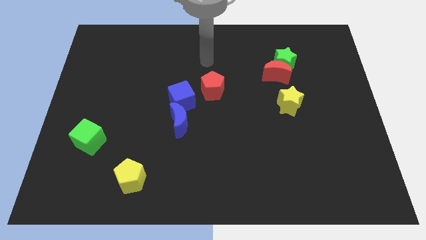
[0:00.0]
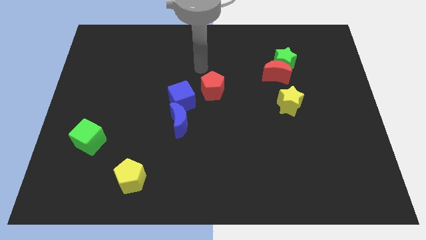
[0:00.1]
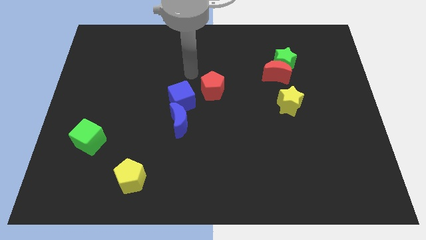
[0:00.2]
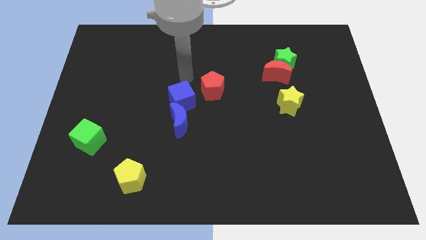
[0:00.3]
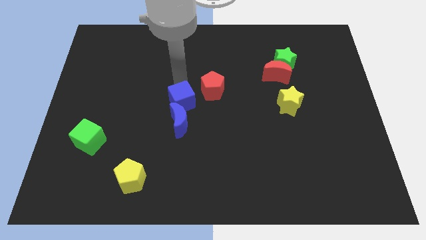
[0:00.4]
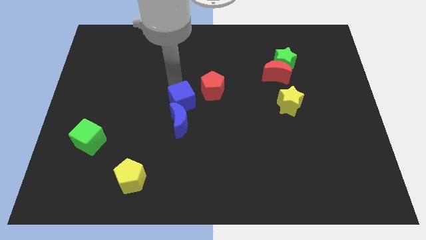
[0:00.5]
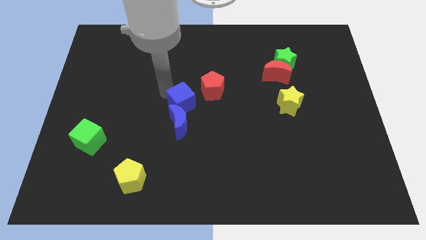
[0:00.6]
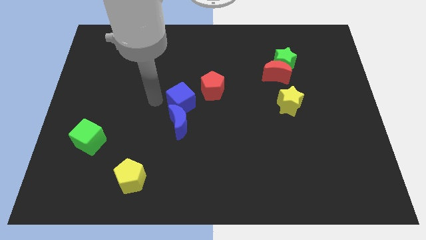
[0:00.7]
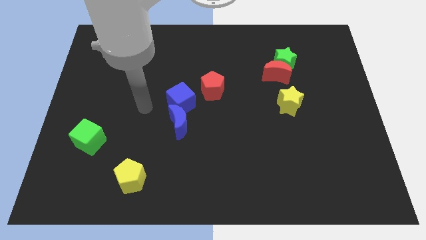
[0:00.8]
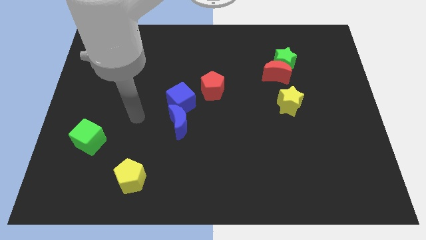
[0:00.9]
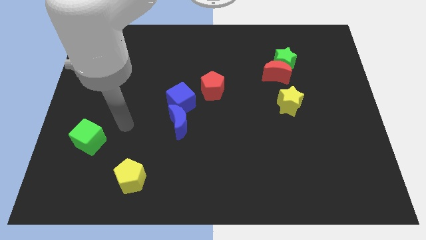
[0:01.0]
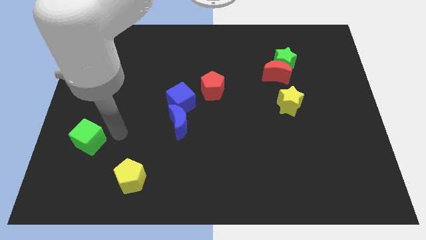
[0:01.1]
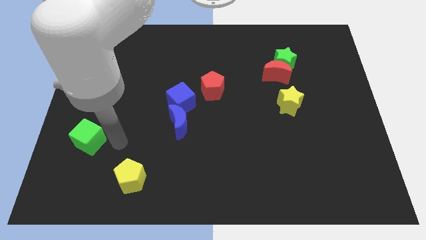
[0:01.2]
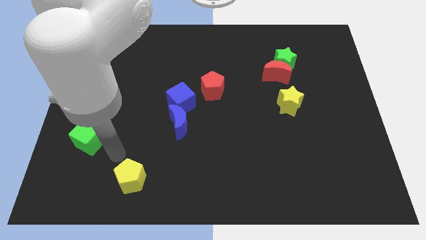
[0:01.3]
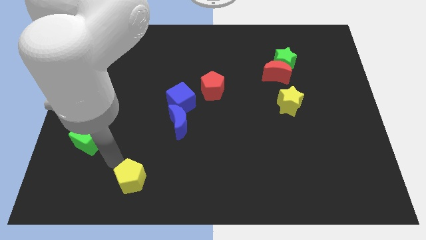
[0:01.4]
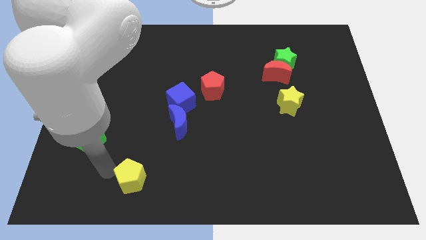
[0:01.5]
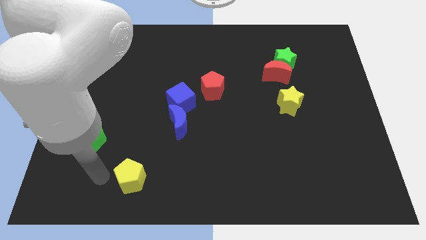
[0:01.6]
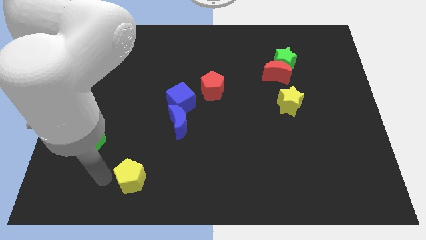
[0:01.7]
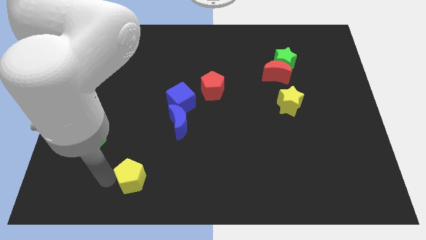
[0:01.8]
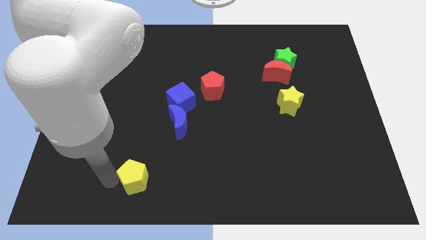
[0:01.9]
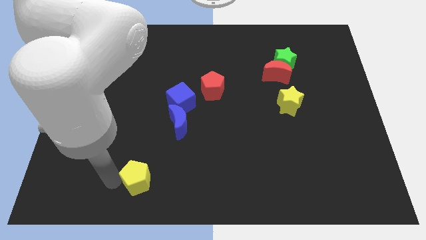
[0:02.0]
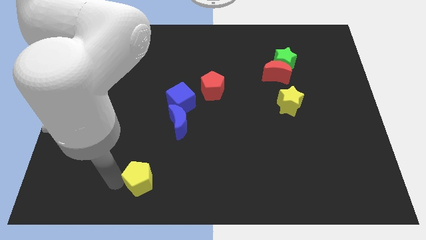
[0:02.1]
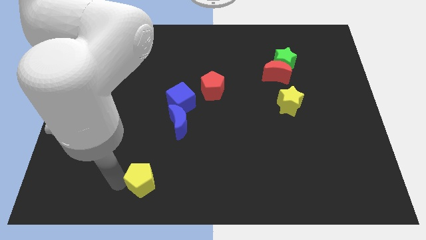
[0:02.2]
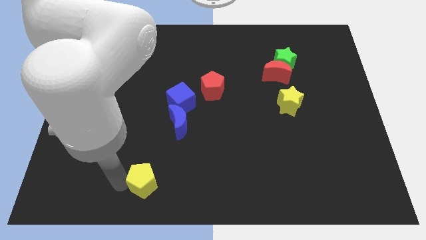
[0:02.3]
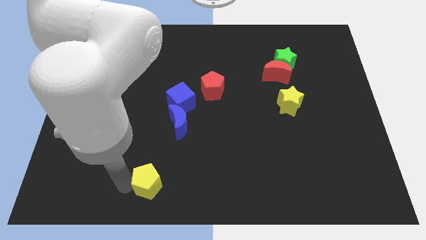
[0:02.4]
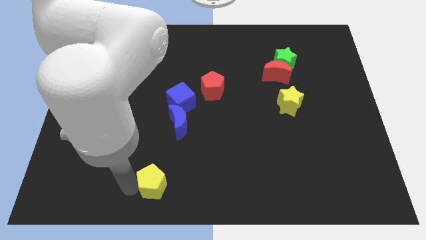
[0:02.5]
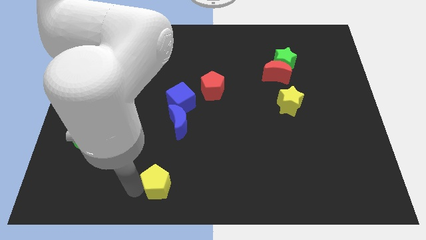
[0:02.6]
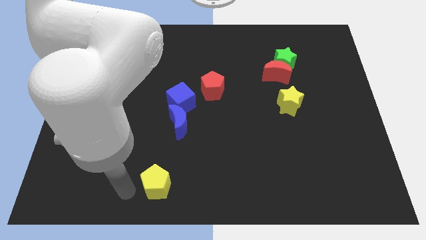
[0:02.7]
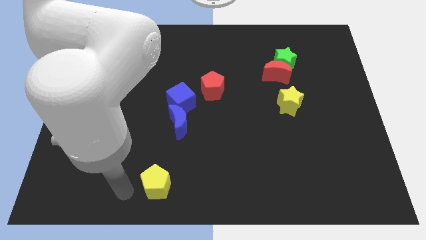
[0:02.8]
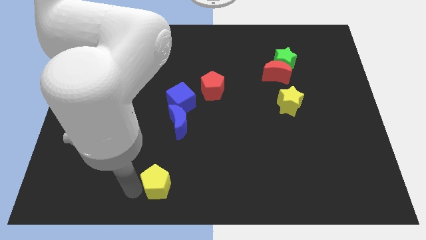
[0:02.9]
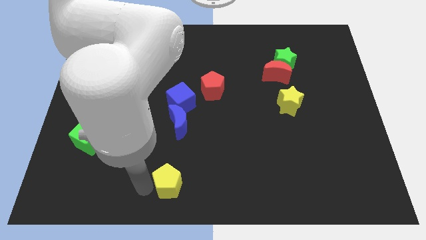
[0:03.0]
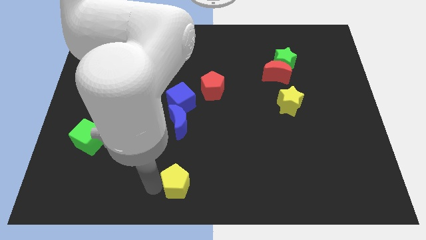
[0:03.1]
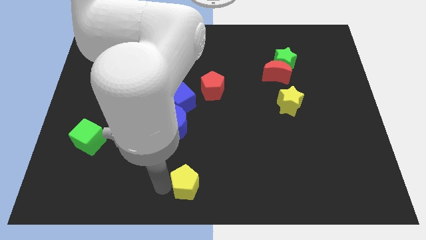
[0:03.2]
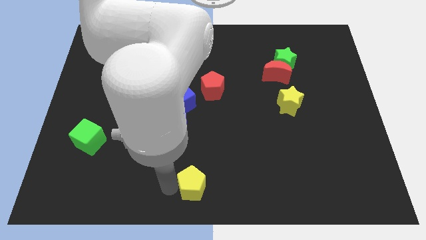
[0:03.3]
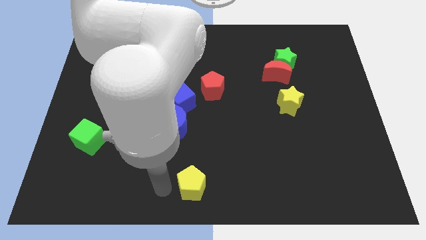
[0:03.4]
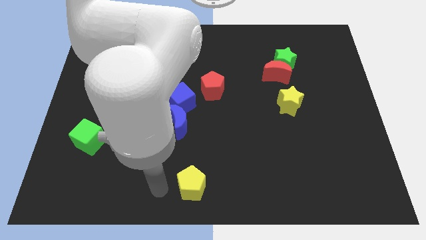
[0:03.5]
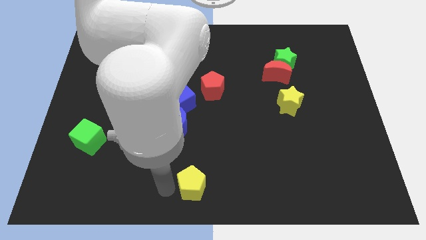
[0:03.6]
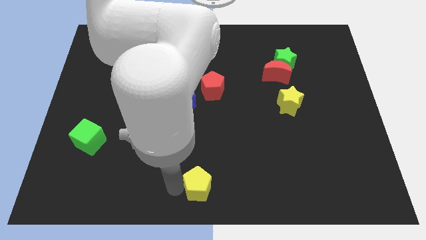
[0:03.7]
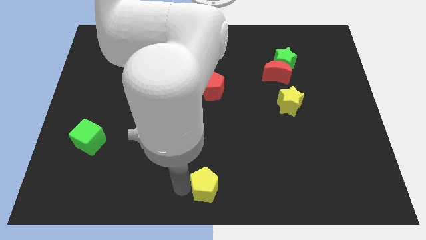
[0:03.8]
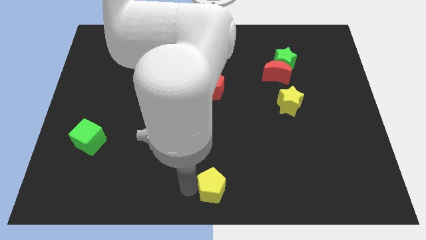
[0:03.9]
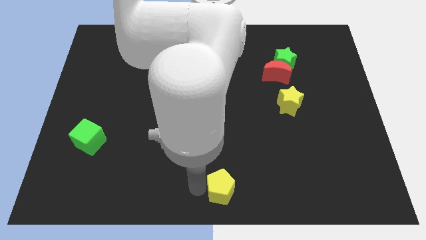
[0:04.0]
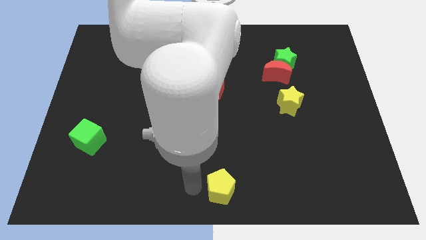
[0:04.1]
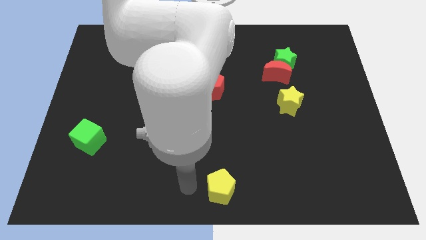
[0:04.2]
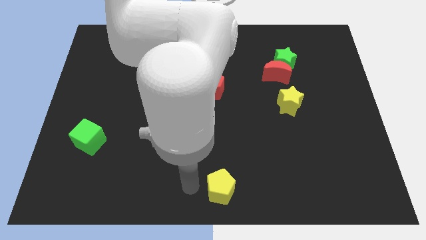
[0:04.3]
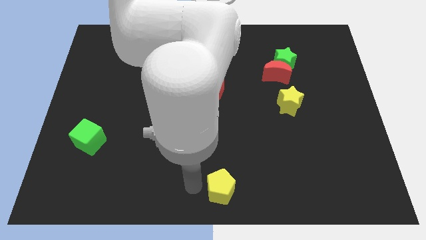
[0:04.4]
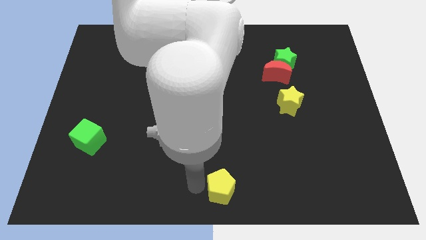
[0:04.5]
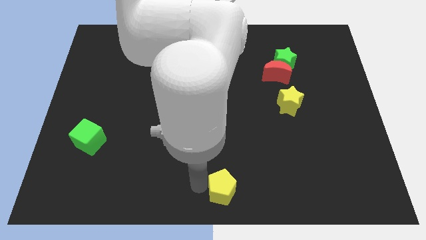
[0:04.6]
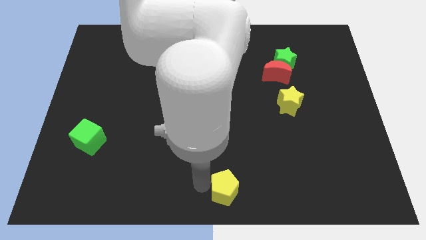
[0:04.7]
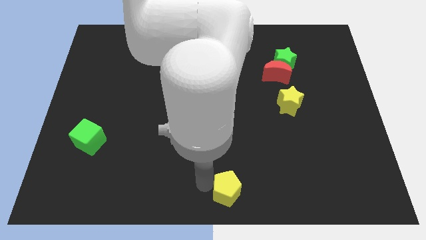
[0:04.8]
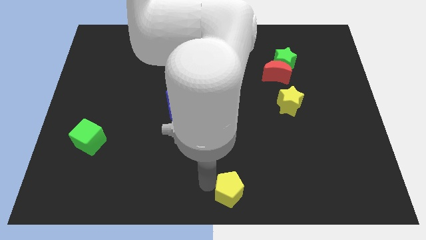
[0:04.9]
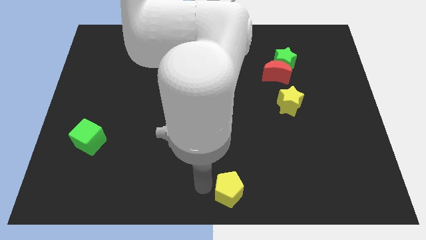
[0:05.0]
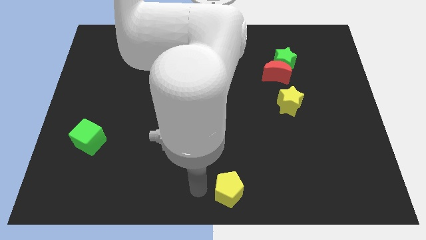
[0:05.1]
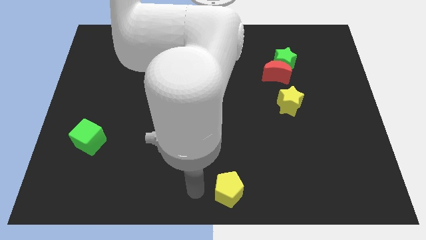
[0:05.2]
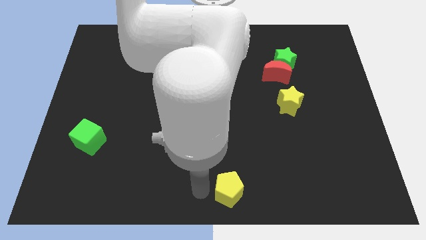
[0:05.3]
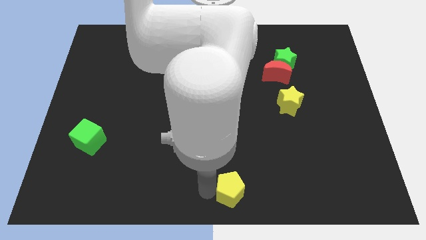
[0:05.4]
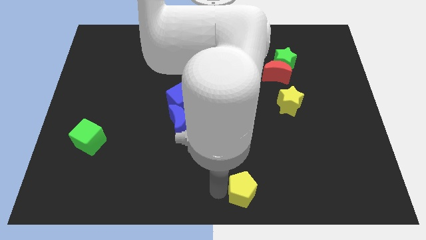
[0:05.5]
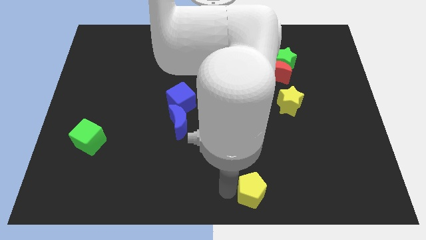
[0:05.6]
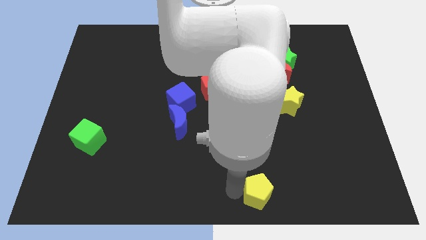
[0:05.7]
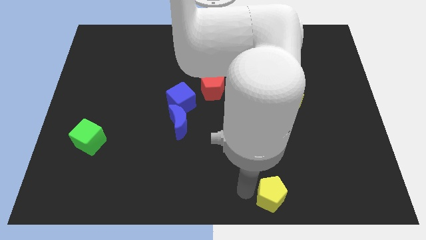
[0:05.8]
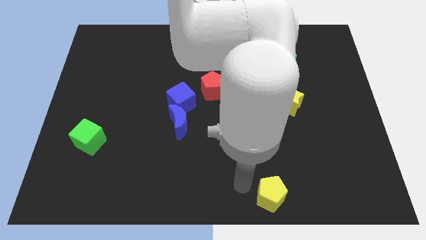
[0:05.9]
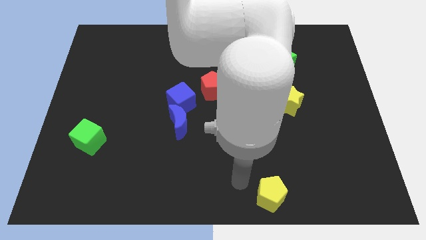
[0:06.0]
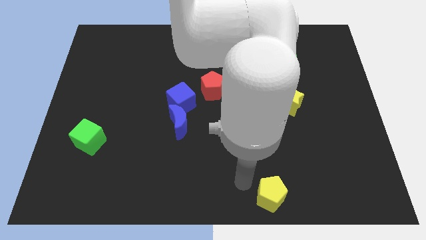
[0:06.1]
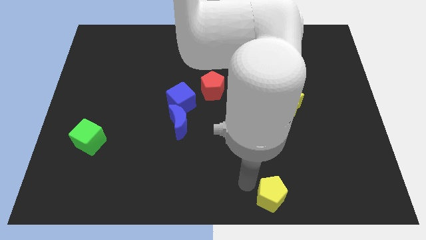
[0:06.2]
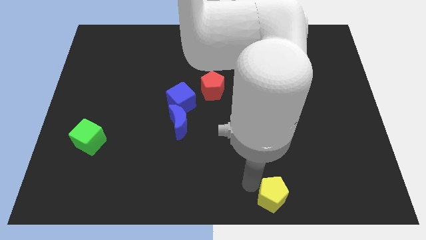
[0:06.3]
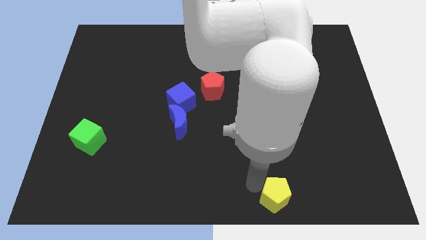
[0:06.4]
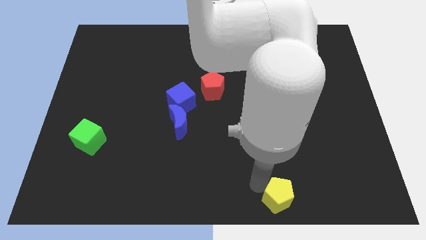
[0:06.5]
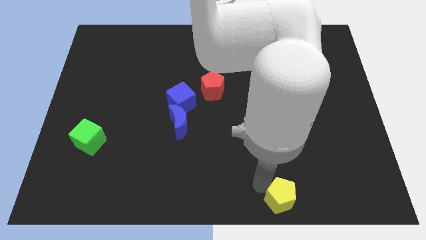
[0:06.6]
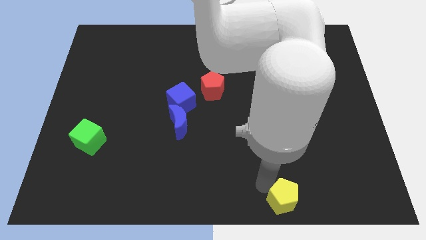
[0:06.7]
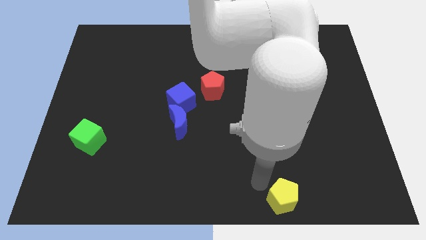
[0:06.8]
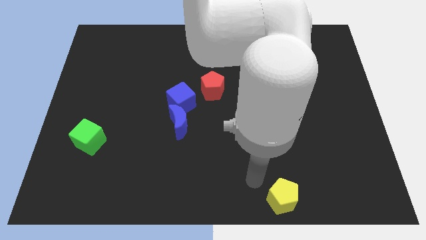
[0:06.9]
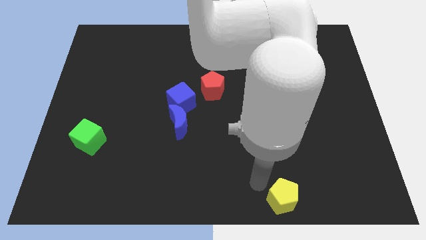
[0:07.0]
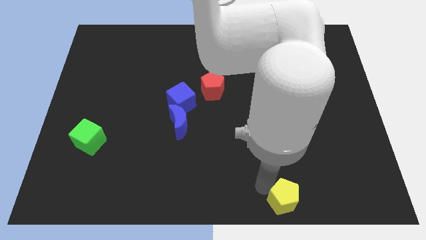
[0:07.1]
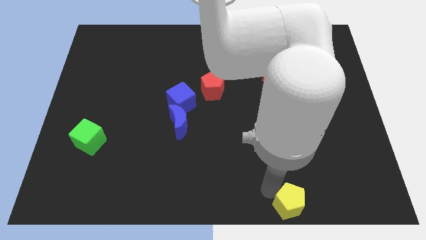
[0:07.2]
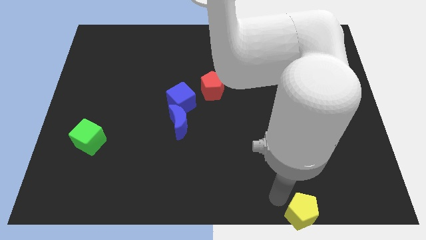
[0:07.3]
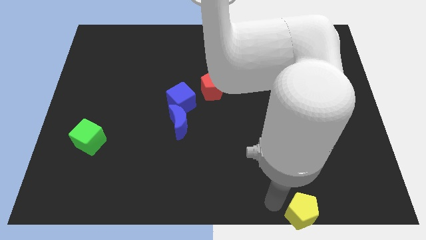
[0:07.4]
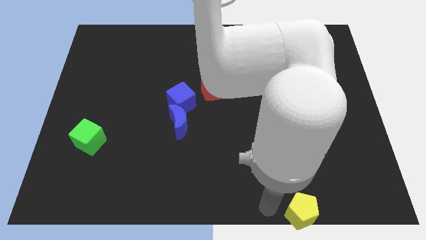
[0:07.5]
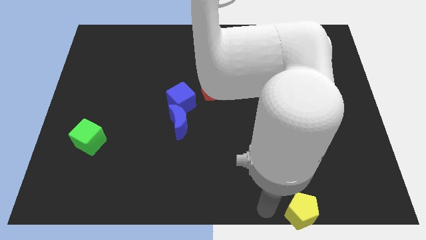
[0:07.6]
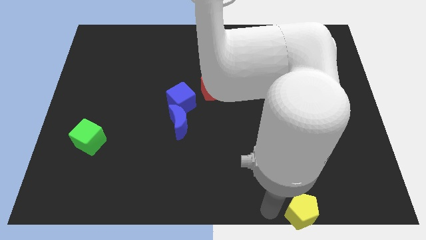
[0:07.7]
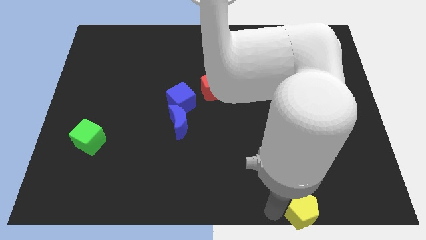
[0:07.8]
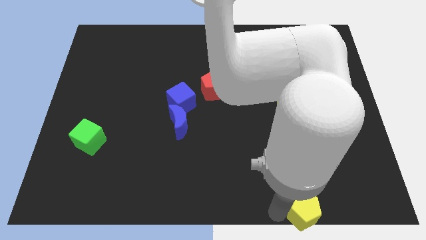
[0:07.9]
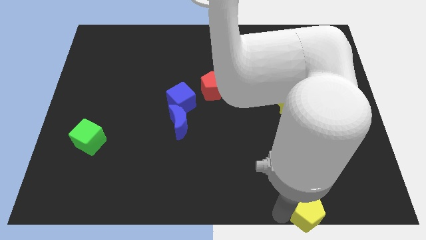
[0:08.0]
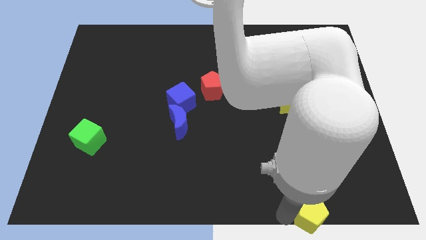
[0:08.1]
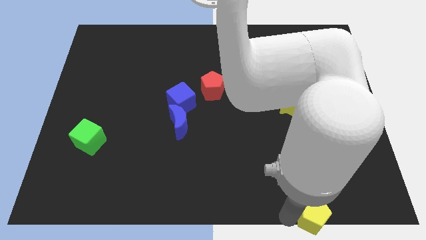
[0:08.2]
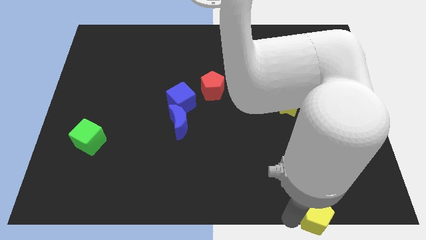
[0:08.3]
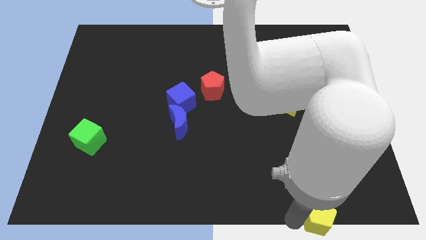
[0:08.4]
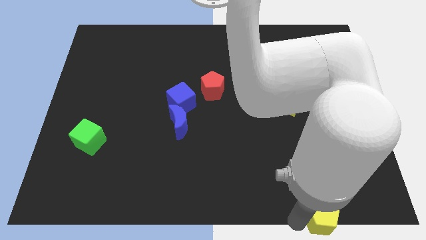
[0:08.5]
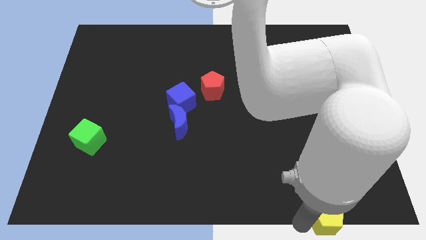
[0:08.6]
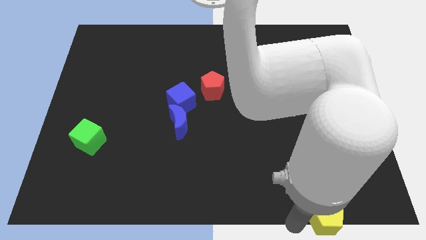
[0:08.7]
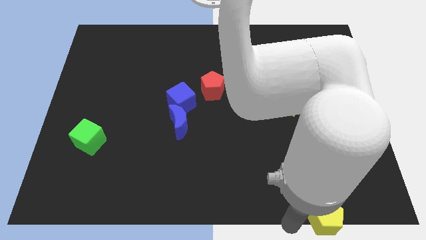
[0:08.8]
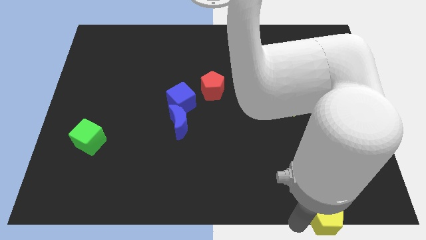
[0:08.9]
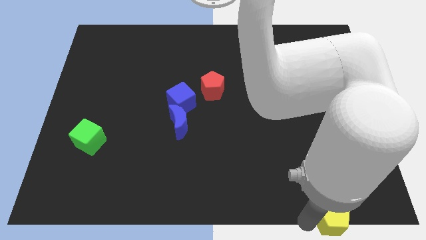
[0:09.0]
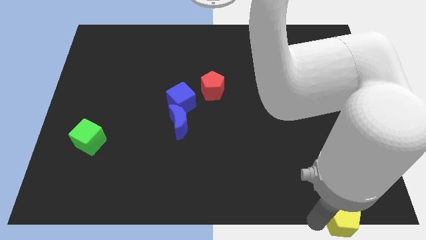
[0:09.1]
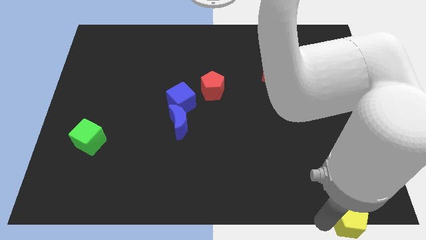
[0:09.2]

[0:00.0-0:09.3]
move the yellow pentagon to the bottom right of the board
